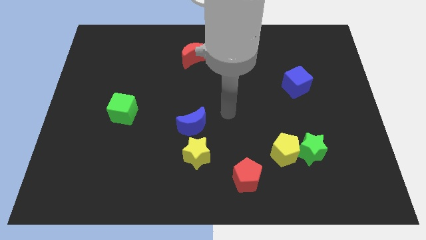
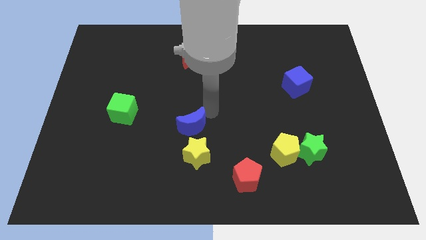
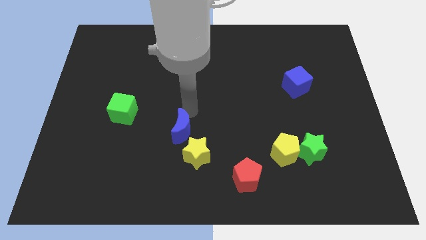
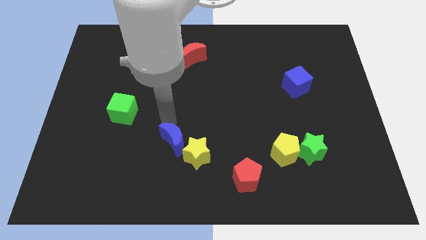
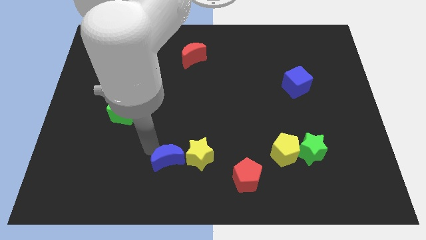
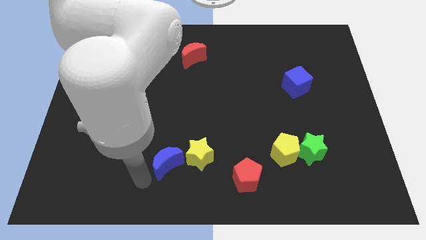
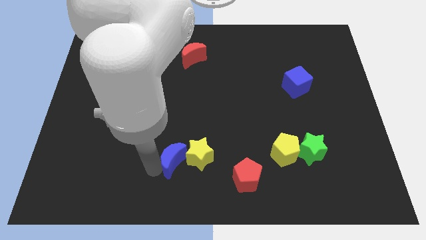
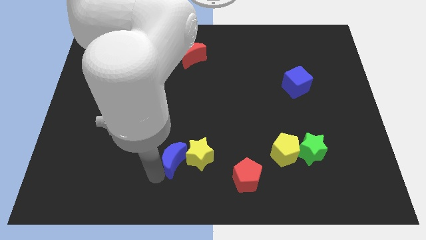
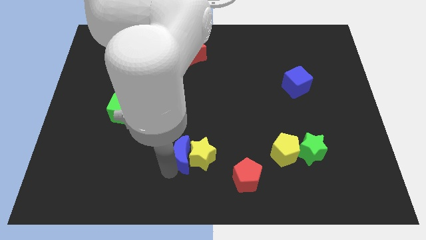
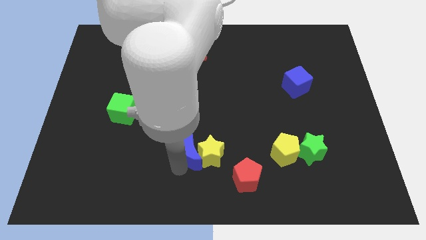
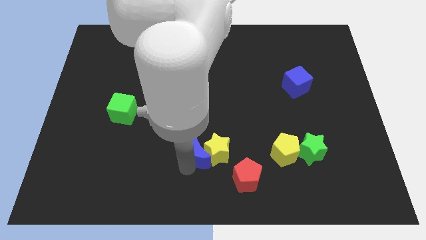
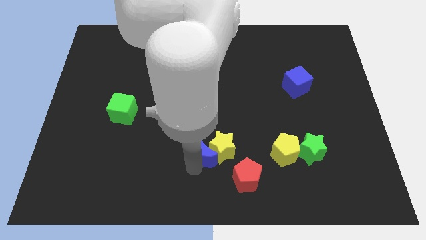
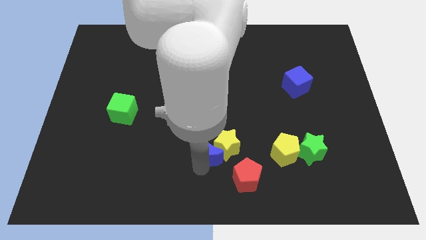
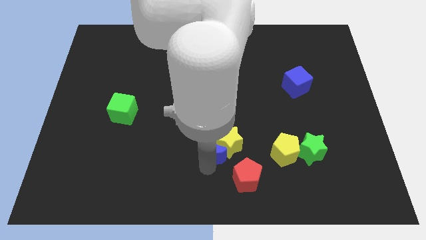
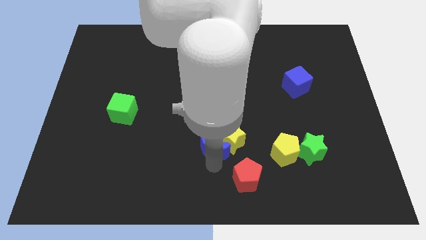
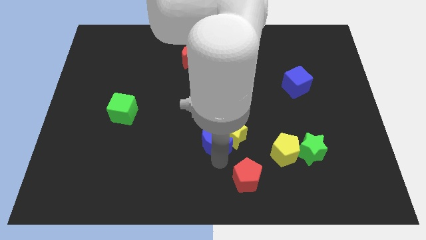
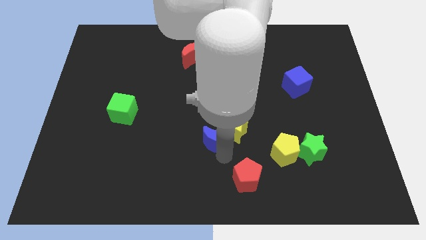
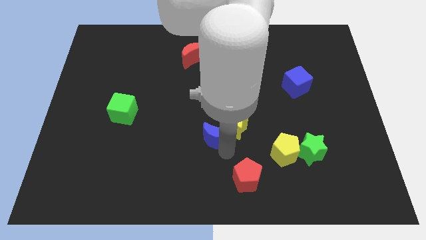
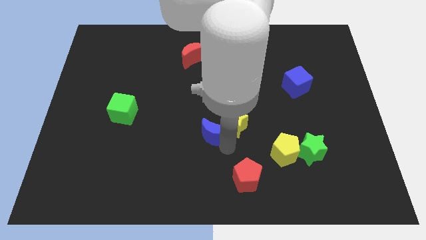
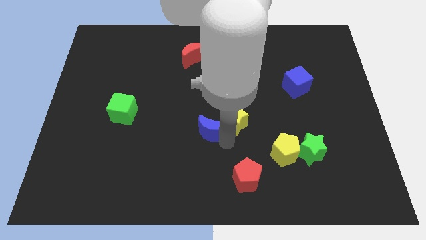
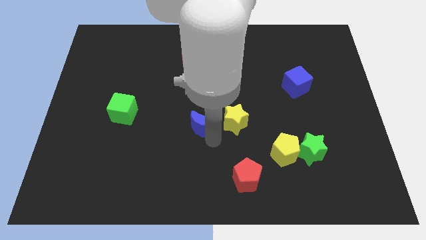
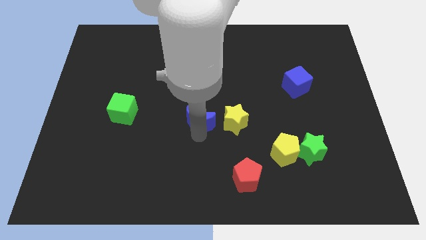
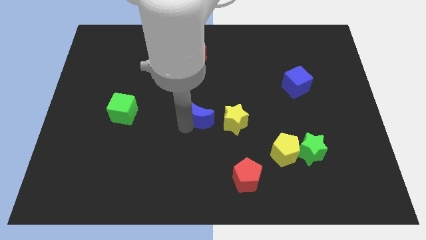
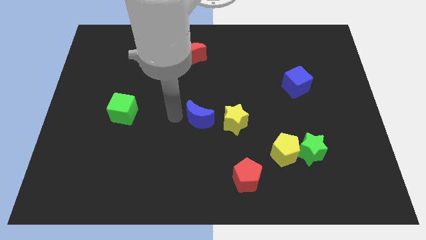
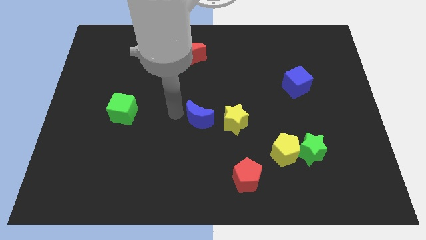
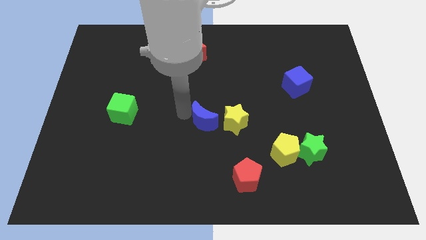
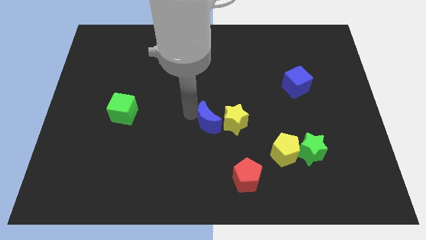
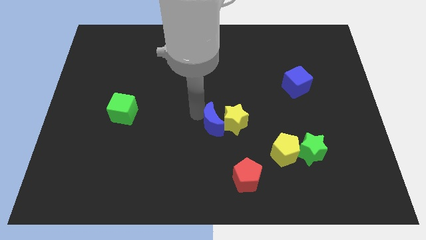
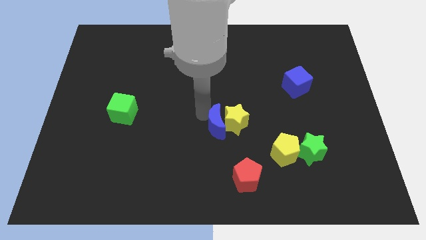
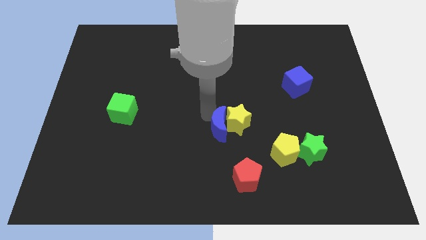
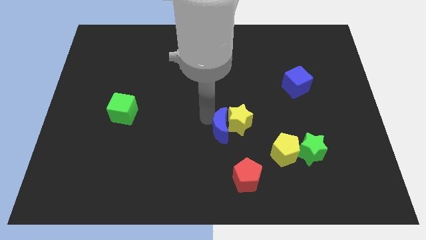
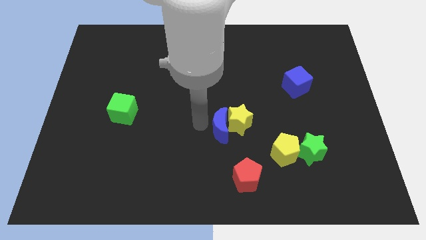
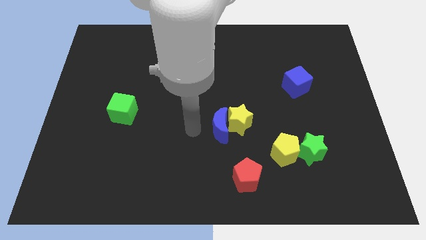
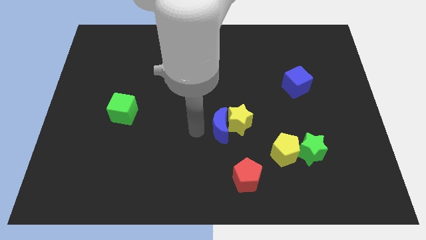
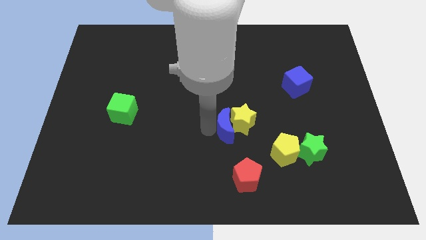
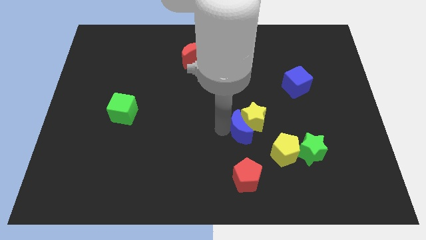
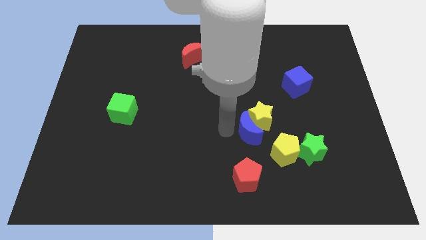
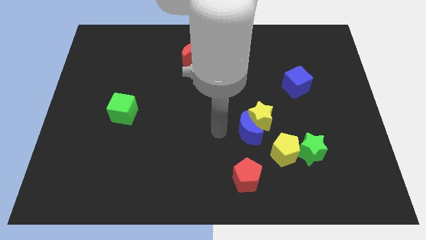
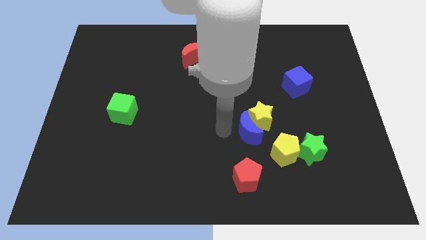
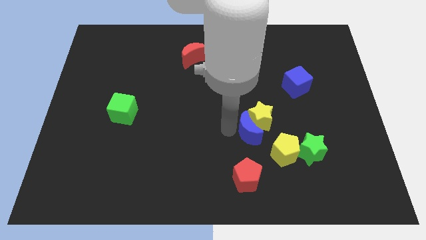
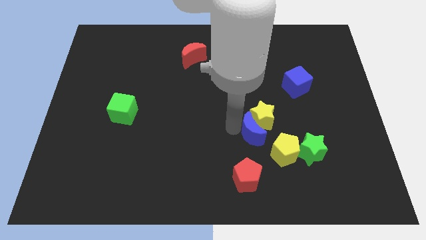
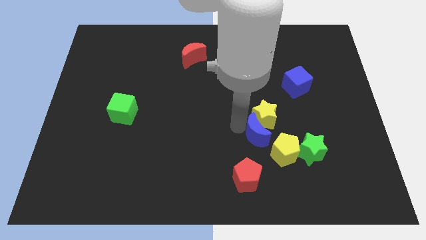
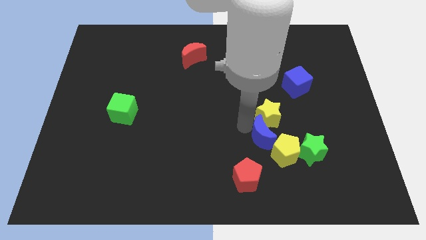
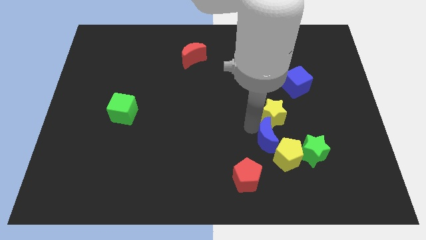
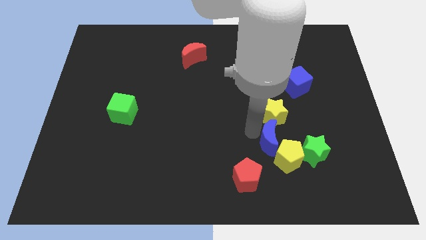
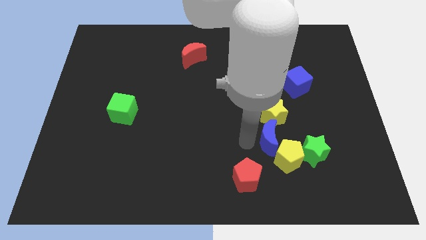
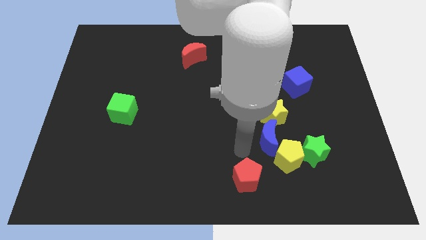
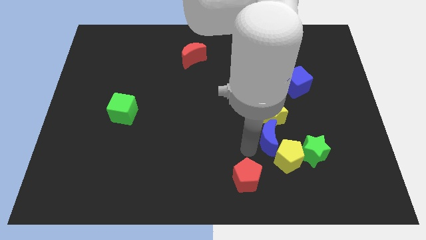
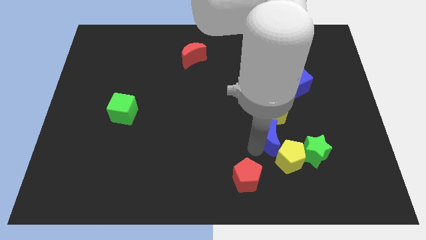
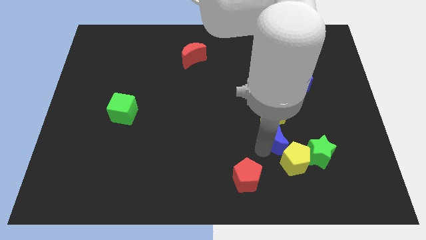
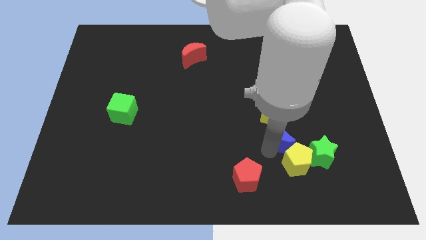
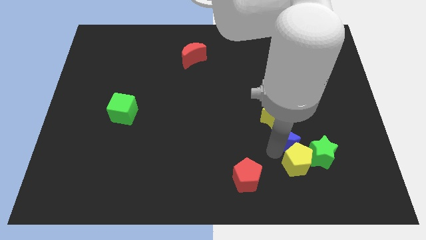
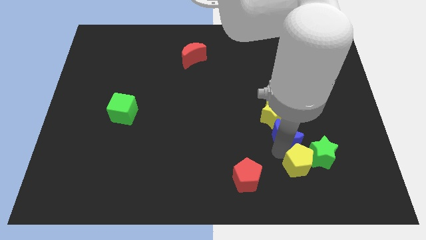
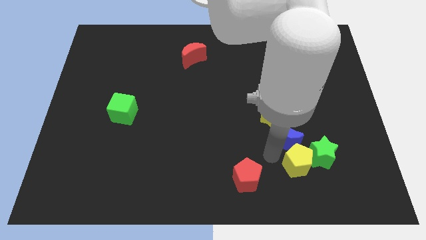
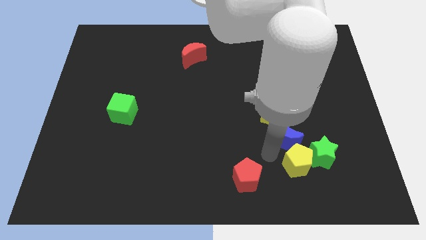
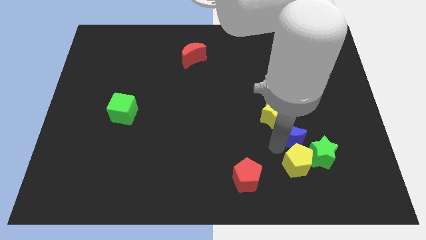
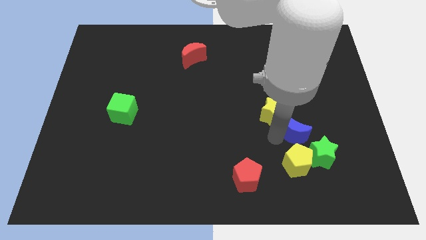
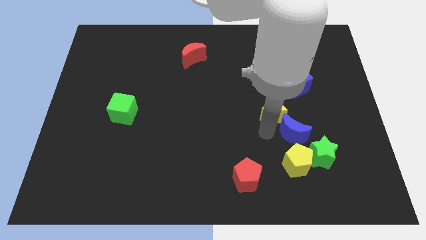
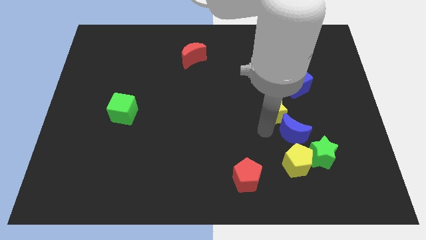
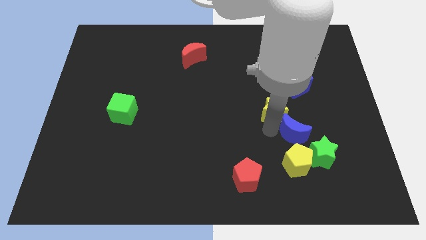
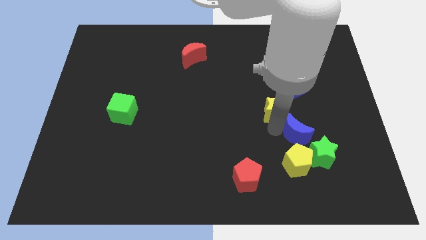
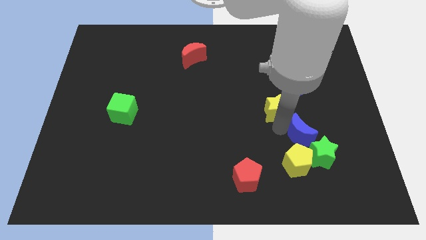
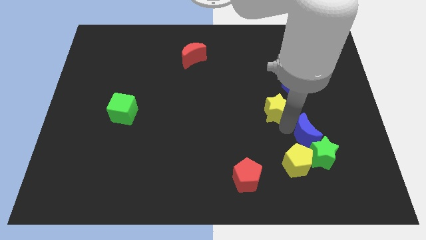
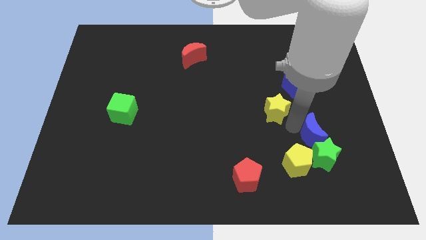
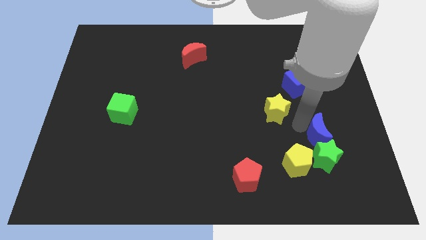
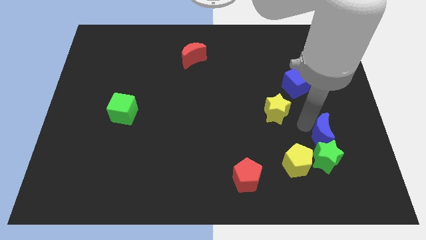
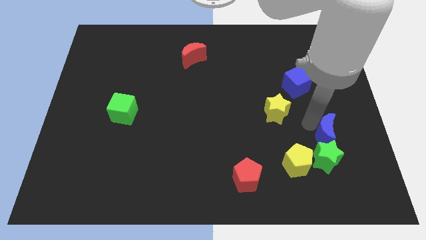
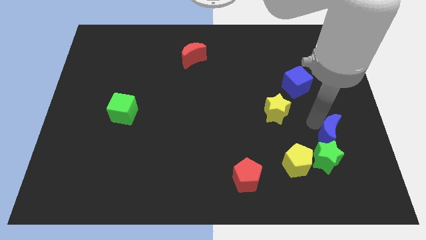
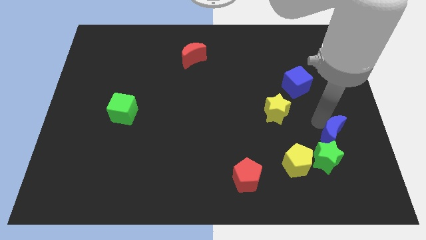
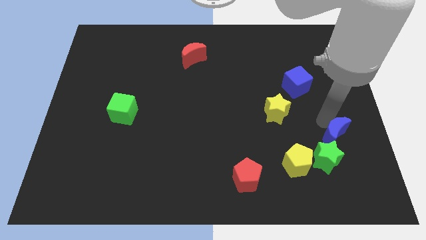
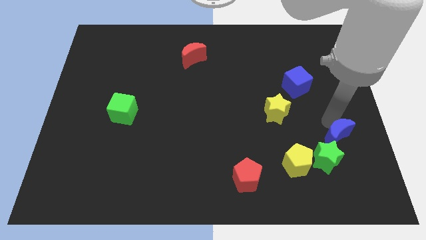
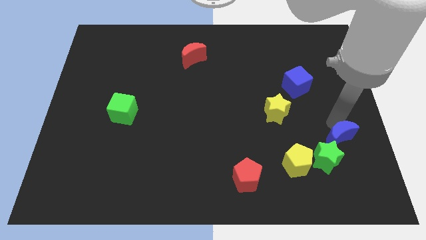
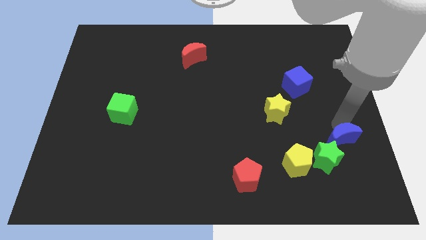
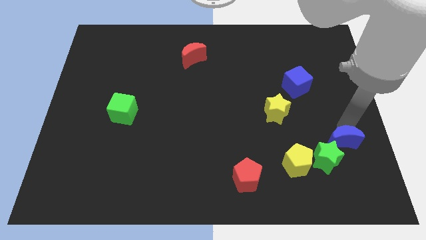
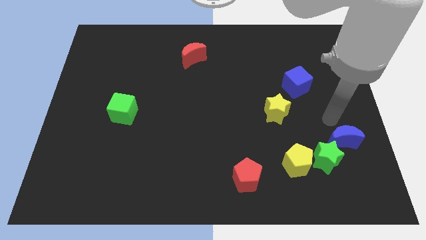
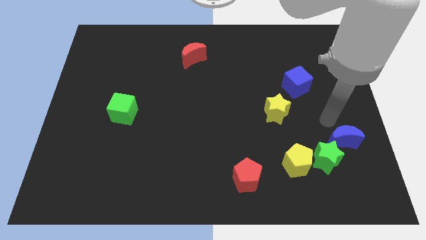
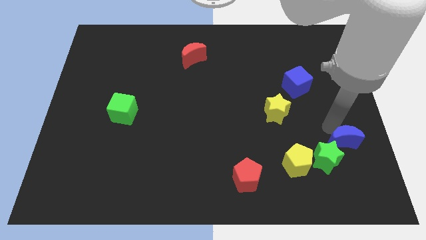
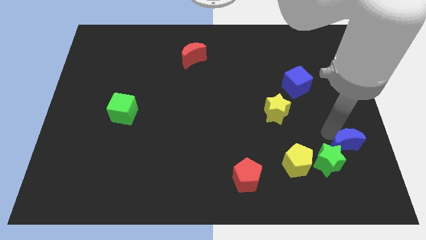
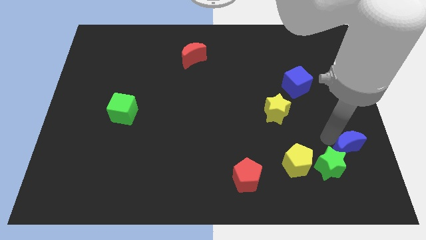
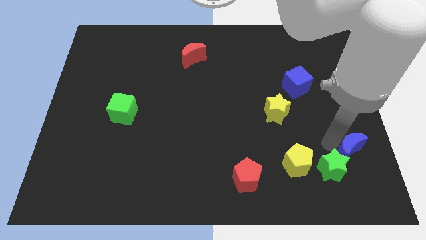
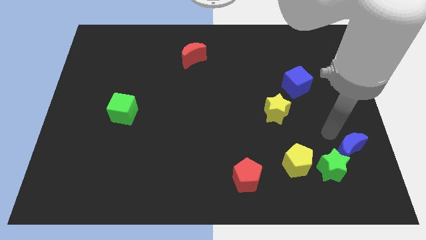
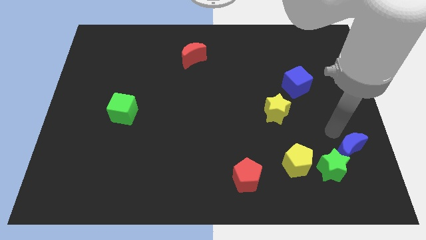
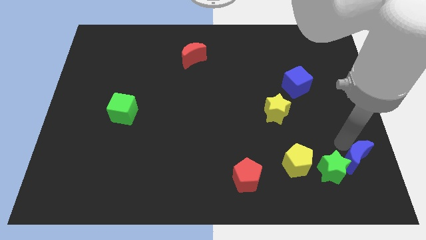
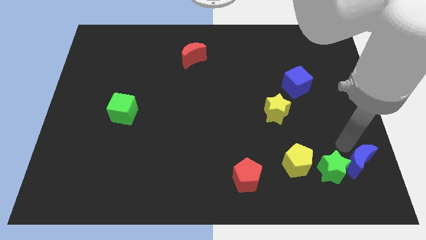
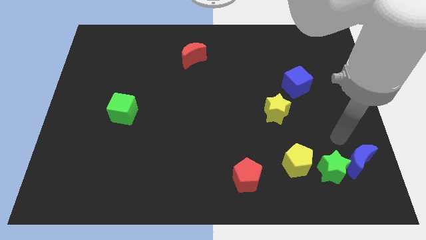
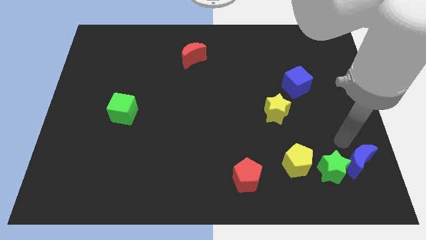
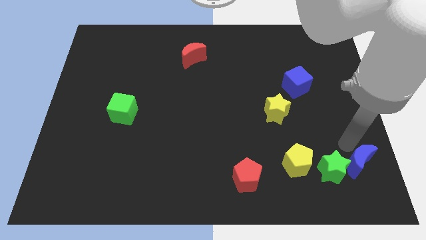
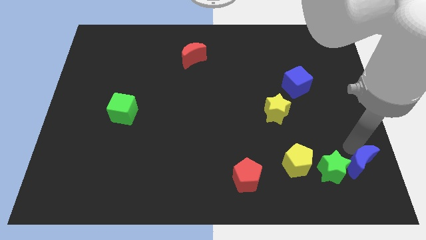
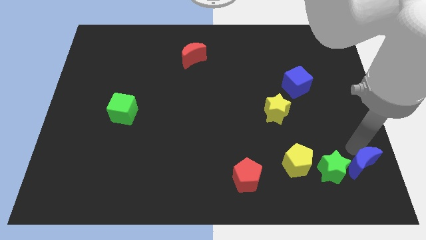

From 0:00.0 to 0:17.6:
push the blue moon to the bottom right of the board
